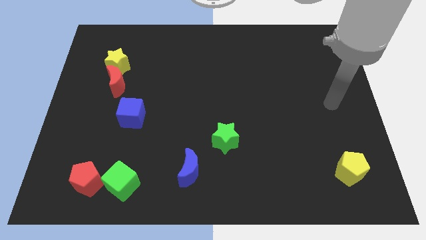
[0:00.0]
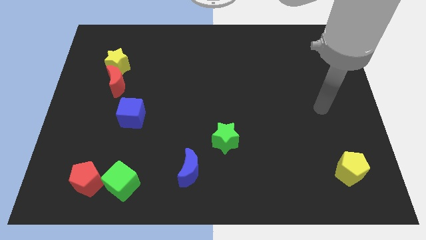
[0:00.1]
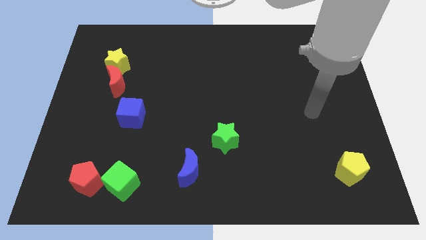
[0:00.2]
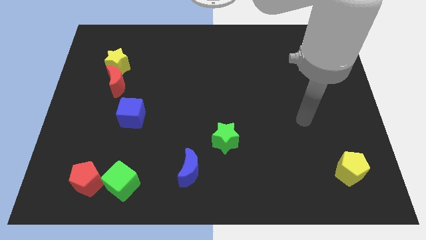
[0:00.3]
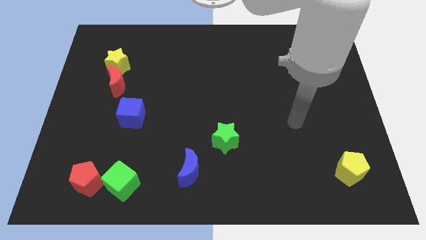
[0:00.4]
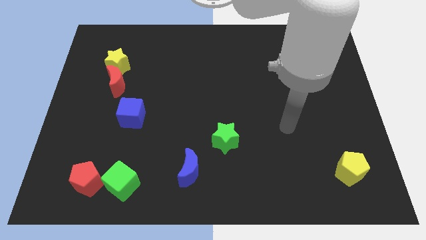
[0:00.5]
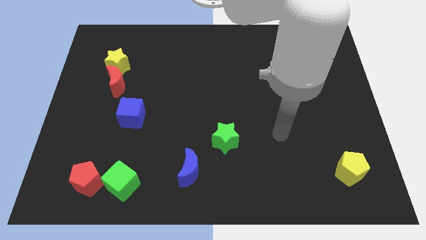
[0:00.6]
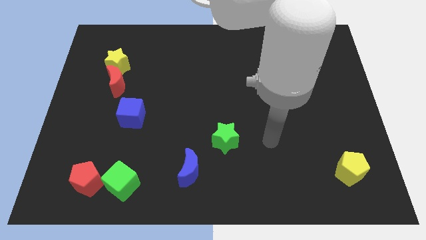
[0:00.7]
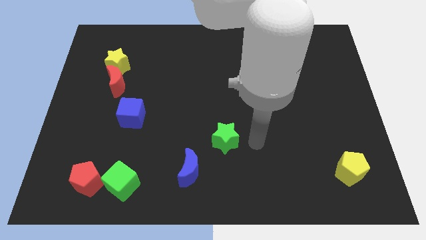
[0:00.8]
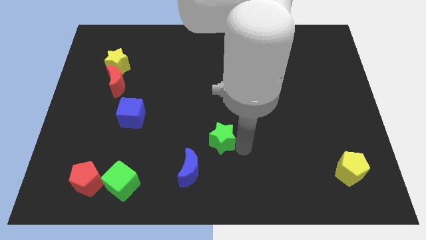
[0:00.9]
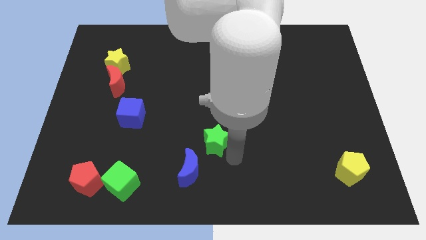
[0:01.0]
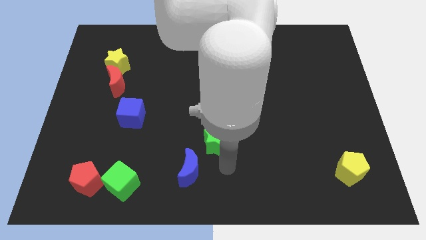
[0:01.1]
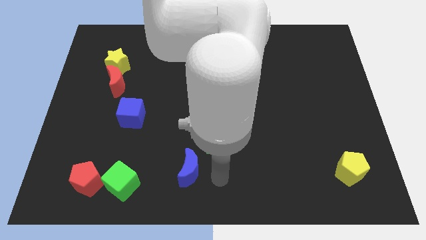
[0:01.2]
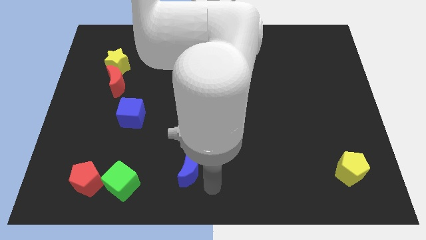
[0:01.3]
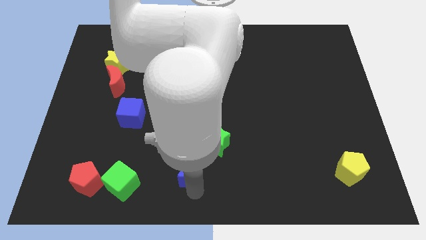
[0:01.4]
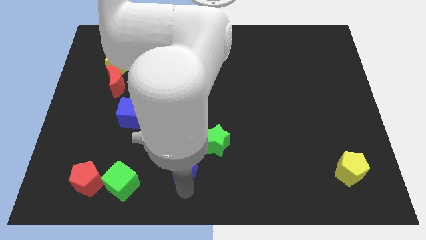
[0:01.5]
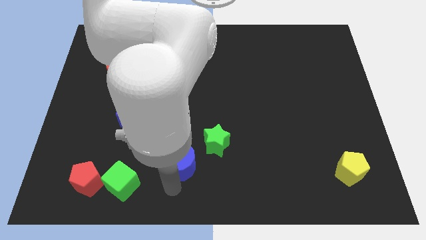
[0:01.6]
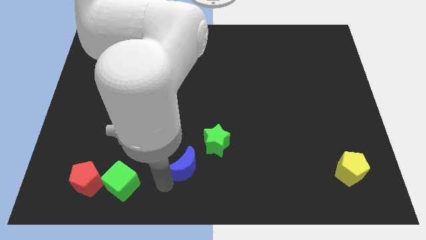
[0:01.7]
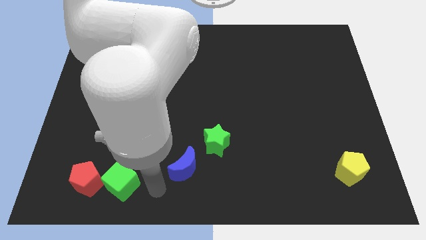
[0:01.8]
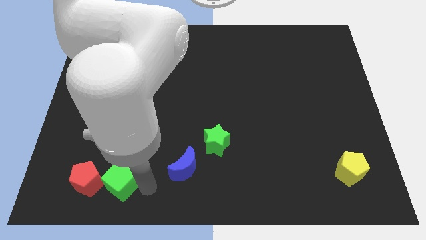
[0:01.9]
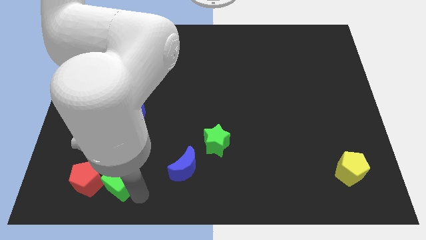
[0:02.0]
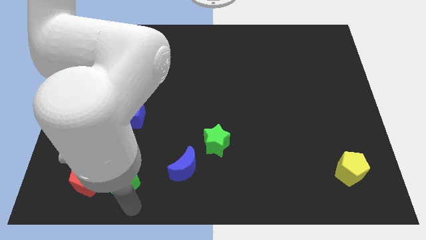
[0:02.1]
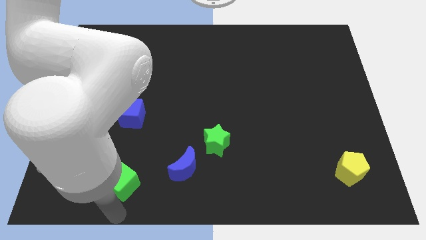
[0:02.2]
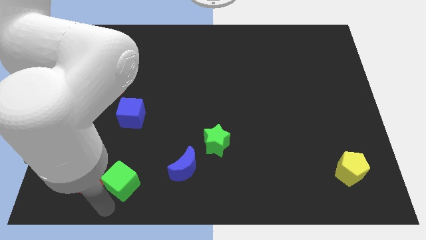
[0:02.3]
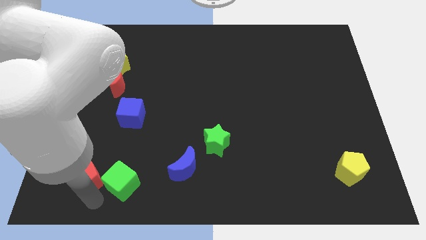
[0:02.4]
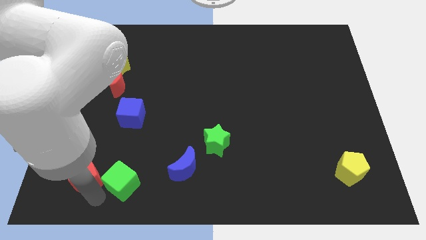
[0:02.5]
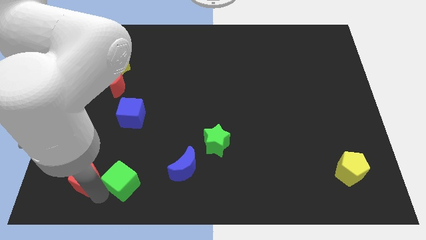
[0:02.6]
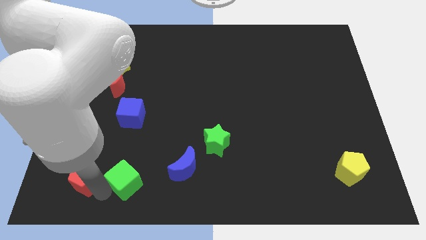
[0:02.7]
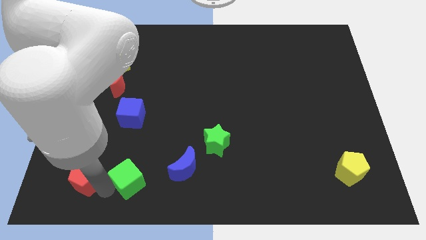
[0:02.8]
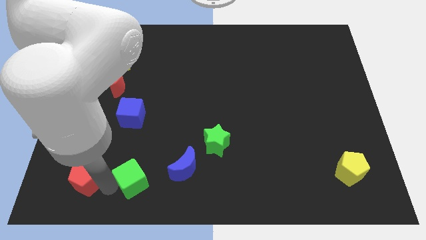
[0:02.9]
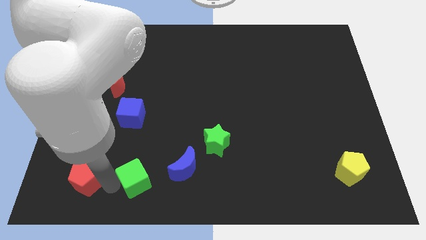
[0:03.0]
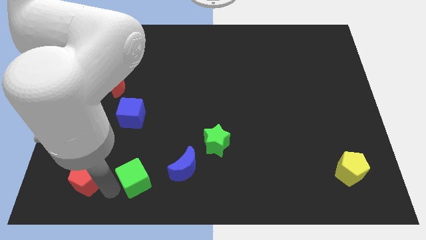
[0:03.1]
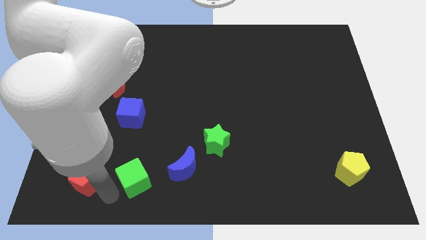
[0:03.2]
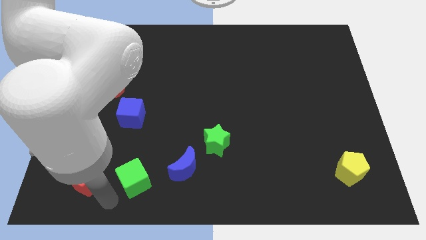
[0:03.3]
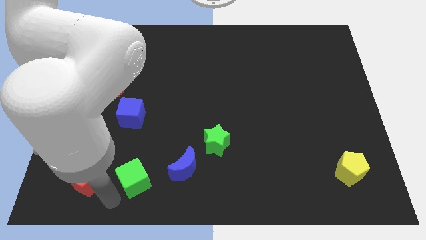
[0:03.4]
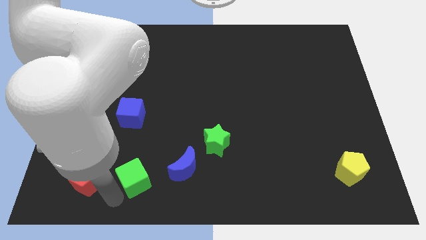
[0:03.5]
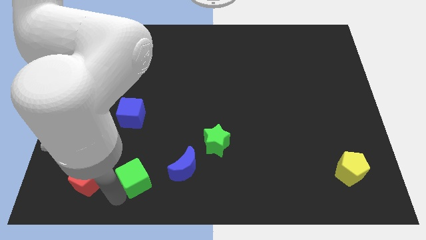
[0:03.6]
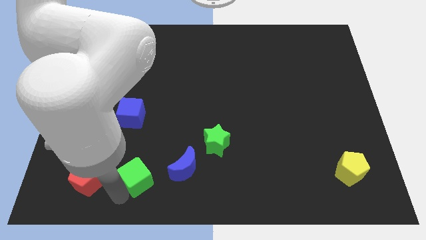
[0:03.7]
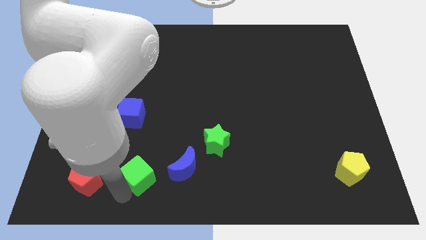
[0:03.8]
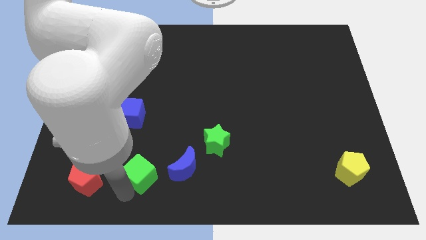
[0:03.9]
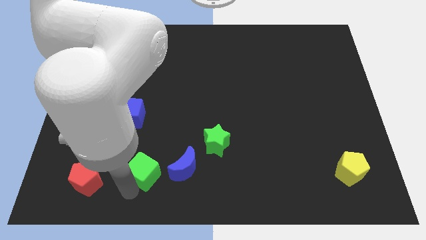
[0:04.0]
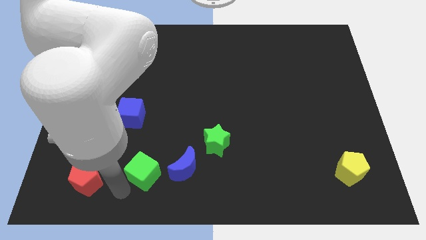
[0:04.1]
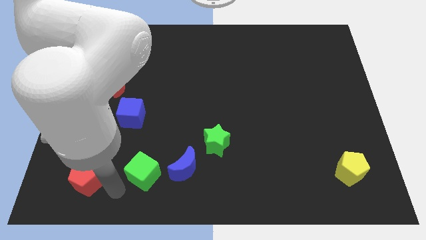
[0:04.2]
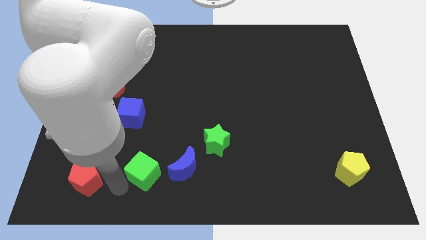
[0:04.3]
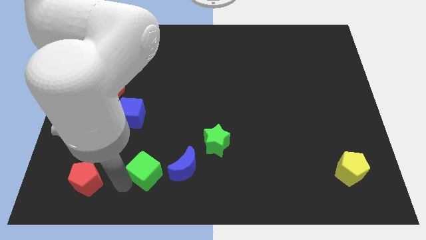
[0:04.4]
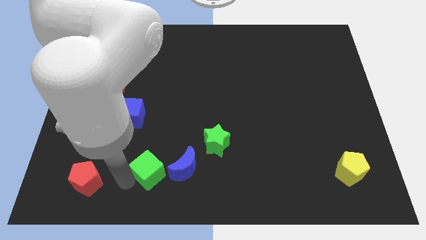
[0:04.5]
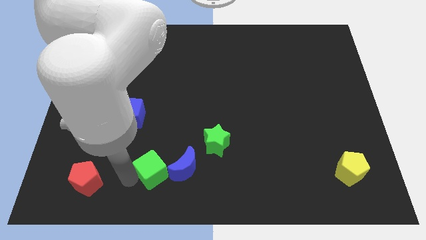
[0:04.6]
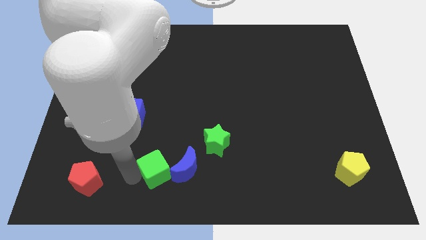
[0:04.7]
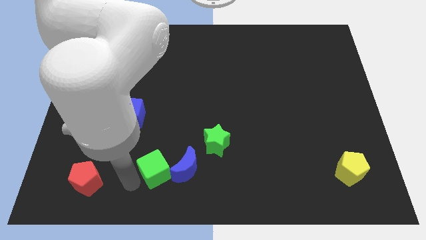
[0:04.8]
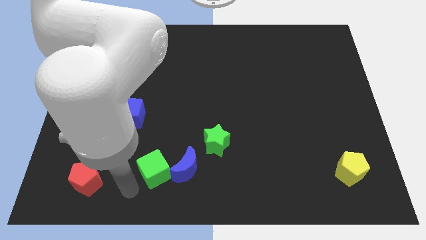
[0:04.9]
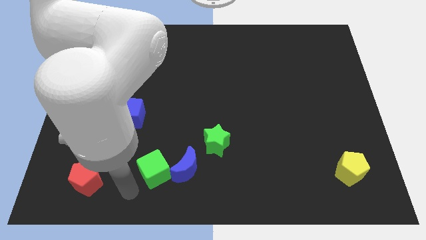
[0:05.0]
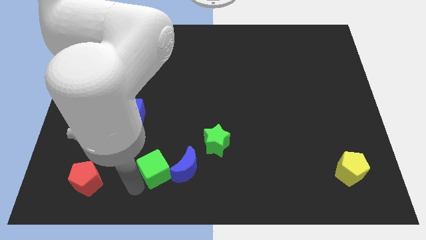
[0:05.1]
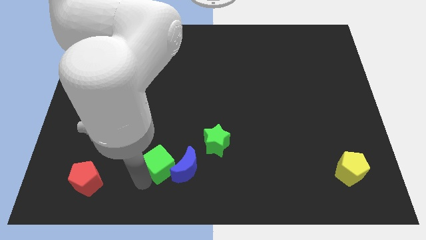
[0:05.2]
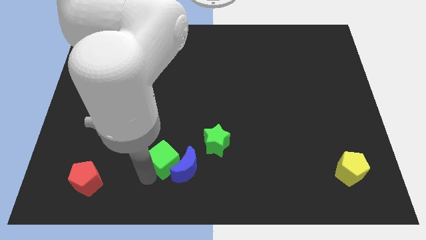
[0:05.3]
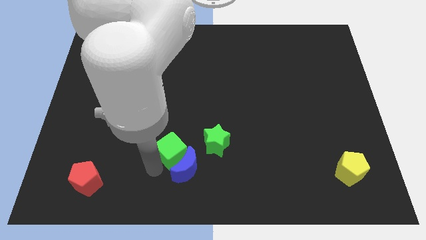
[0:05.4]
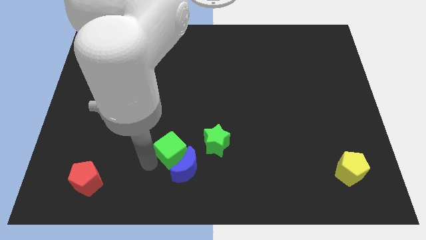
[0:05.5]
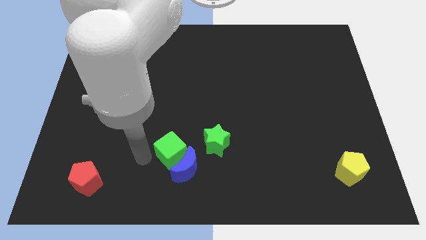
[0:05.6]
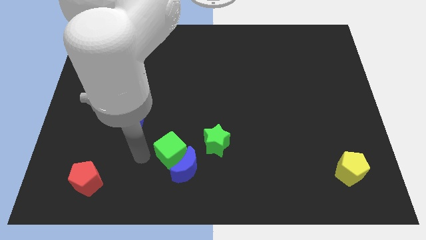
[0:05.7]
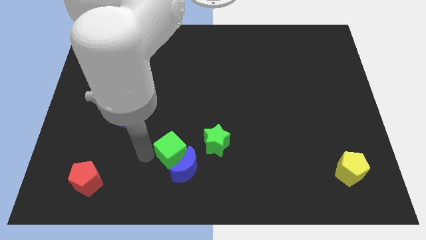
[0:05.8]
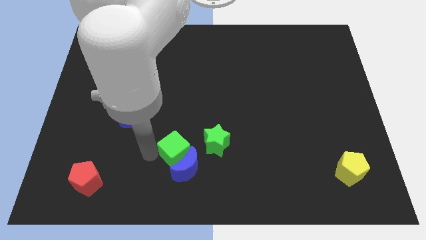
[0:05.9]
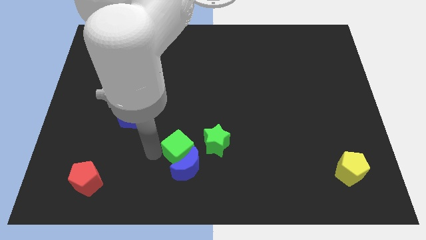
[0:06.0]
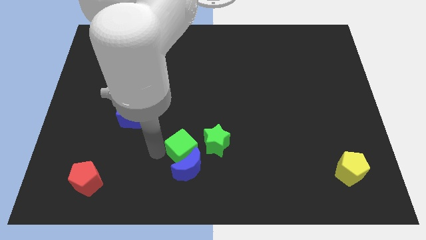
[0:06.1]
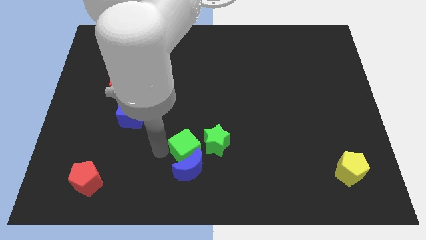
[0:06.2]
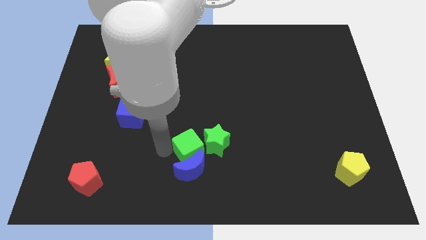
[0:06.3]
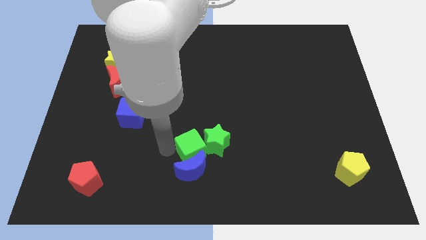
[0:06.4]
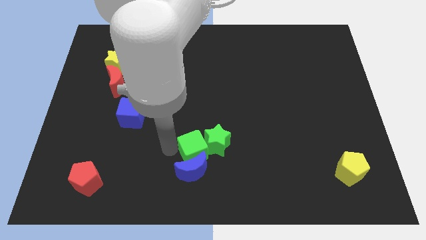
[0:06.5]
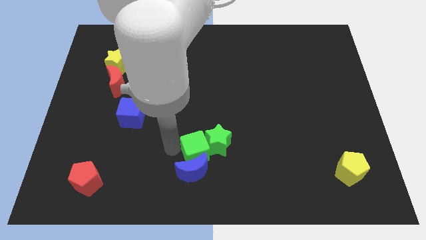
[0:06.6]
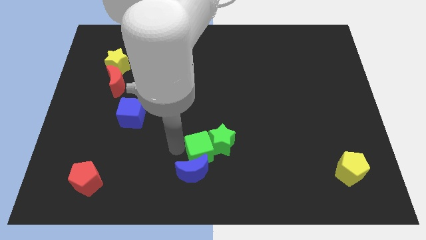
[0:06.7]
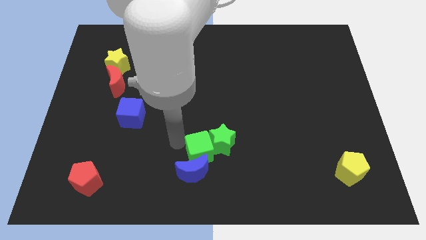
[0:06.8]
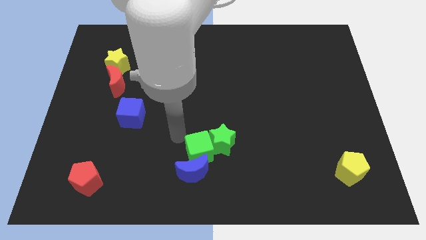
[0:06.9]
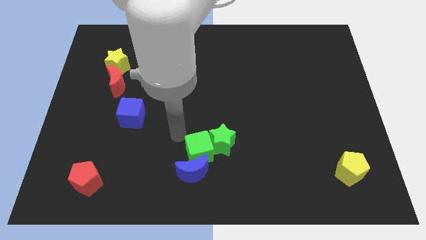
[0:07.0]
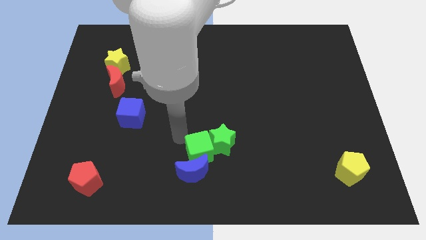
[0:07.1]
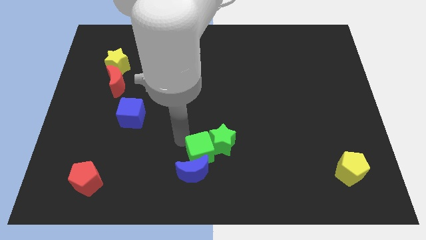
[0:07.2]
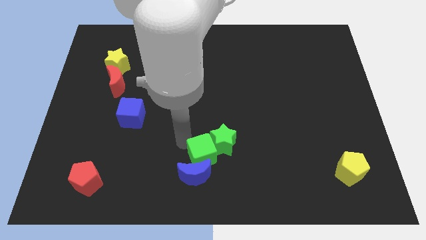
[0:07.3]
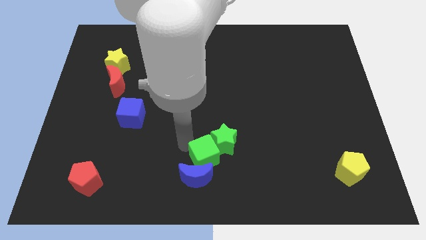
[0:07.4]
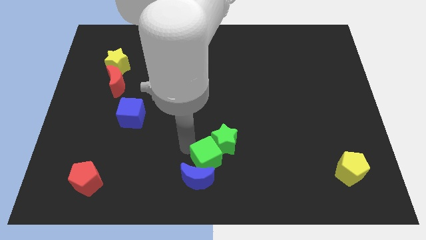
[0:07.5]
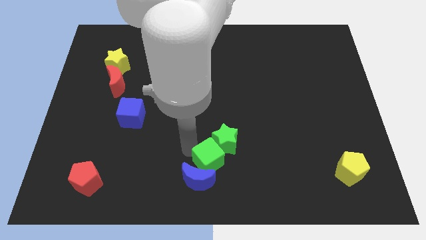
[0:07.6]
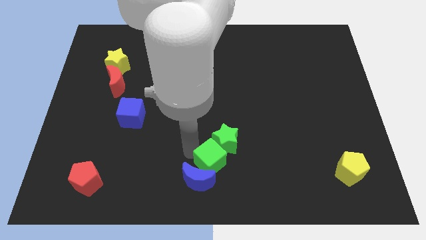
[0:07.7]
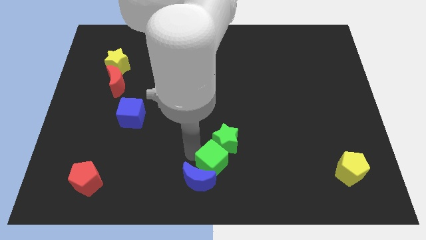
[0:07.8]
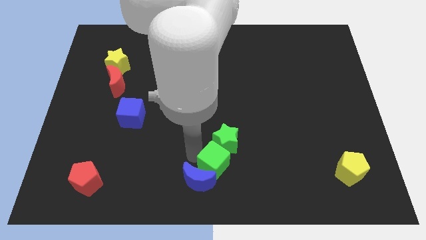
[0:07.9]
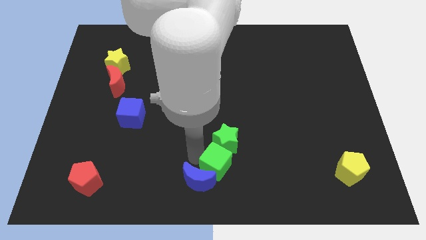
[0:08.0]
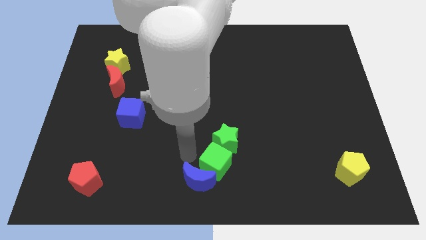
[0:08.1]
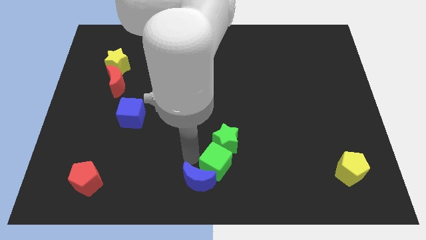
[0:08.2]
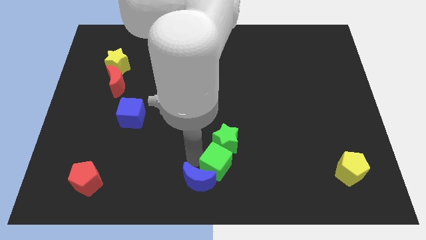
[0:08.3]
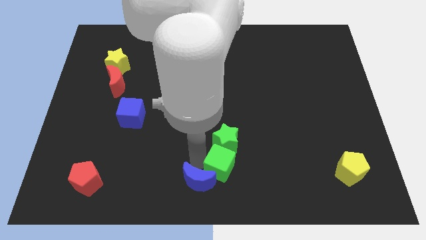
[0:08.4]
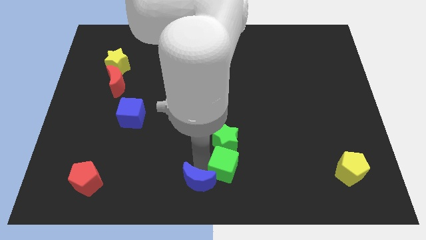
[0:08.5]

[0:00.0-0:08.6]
slide the green cube to the right
